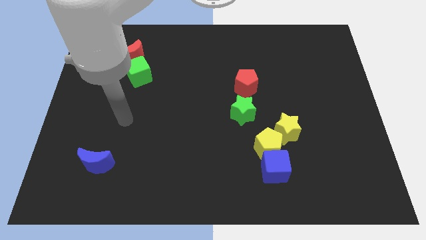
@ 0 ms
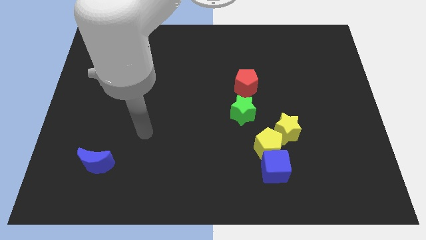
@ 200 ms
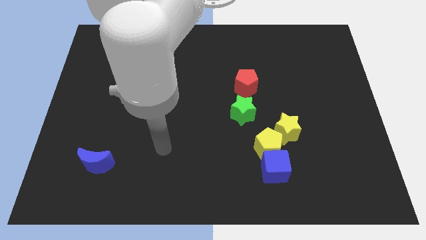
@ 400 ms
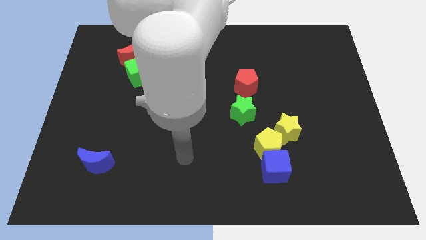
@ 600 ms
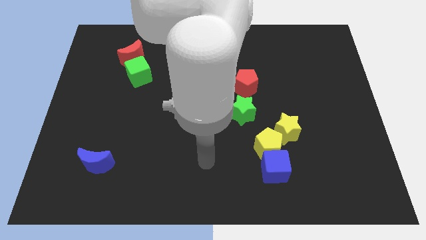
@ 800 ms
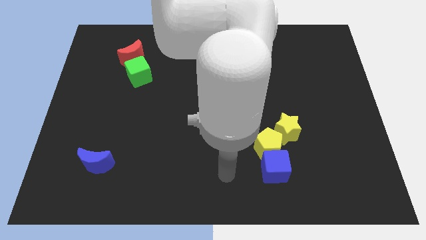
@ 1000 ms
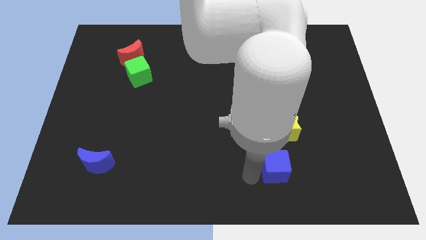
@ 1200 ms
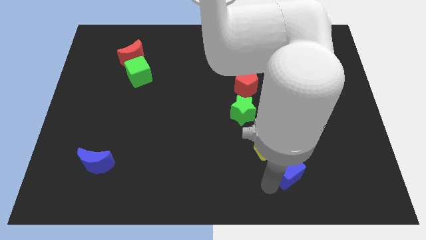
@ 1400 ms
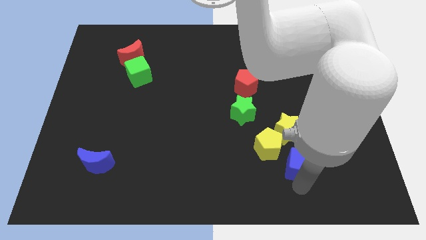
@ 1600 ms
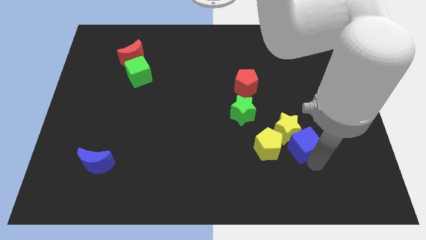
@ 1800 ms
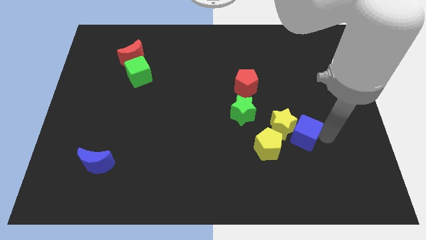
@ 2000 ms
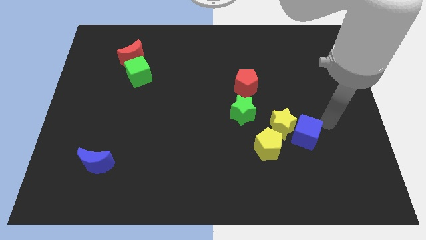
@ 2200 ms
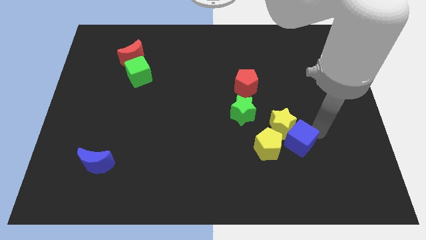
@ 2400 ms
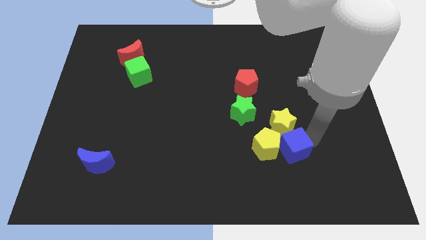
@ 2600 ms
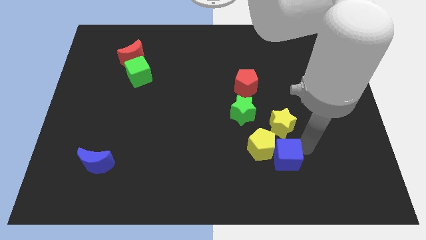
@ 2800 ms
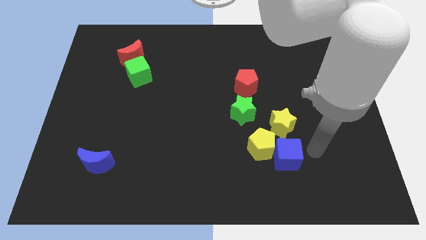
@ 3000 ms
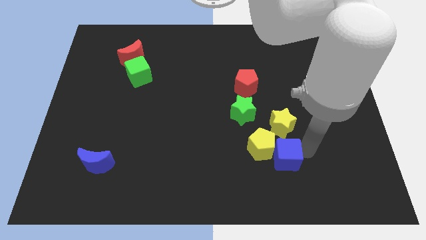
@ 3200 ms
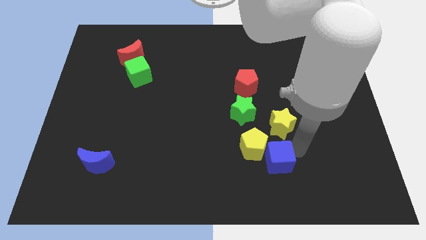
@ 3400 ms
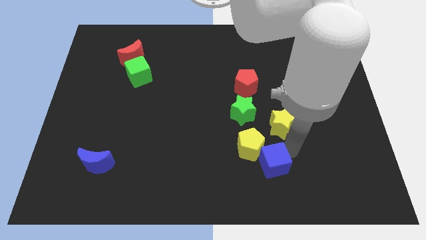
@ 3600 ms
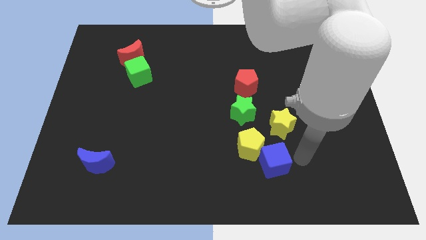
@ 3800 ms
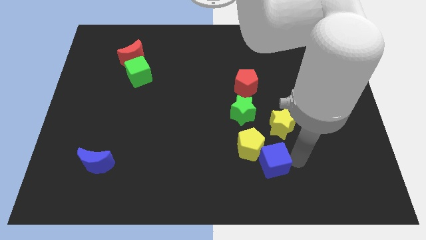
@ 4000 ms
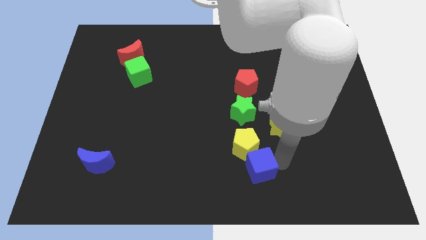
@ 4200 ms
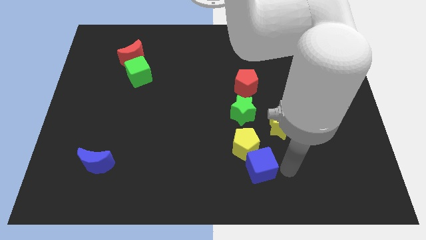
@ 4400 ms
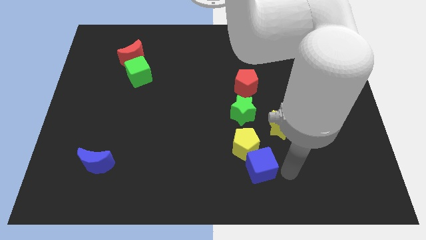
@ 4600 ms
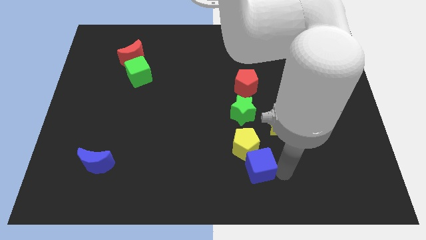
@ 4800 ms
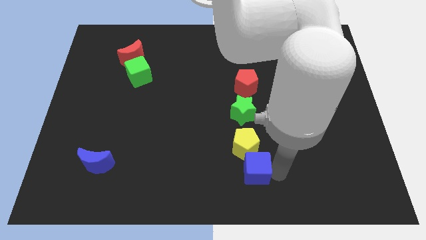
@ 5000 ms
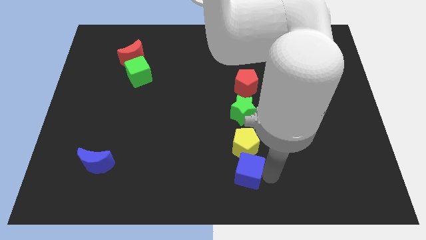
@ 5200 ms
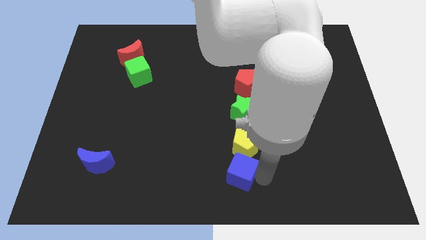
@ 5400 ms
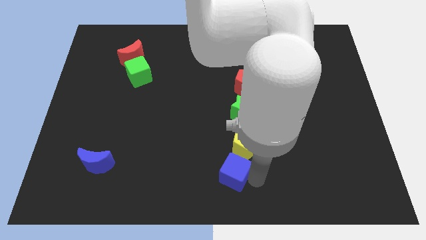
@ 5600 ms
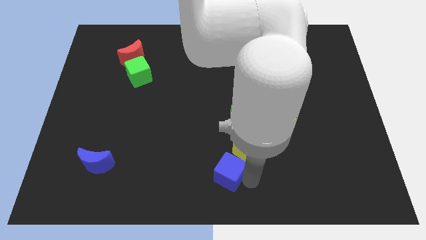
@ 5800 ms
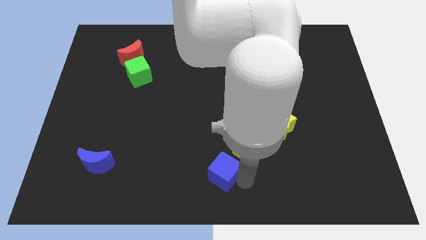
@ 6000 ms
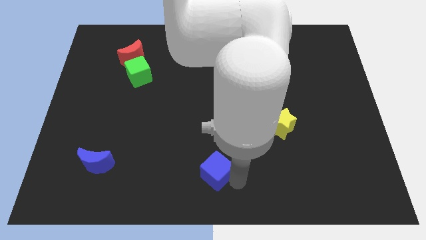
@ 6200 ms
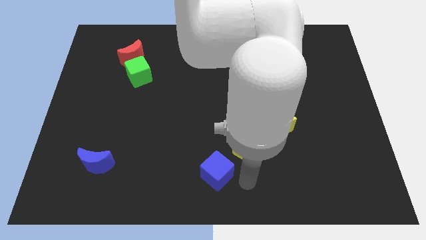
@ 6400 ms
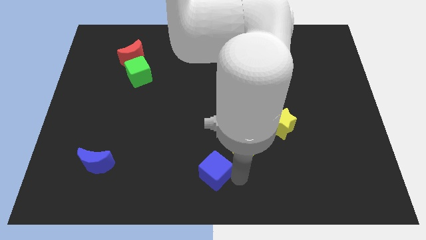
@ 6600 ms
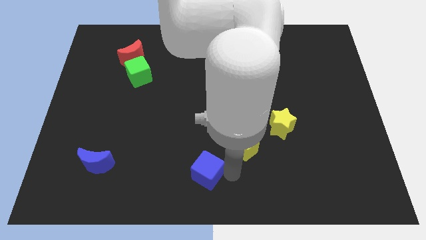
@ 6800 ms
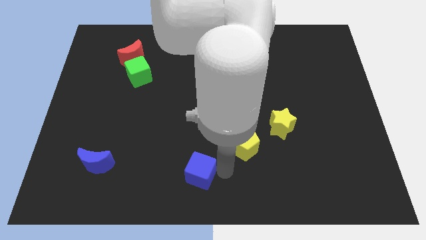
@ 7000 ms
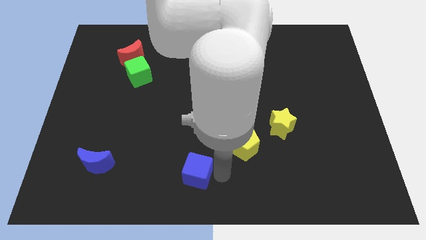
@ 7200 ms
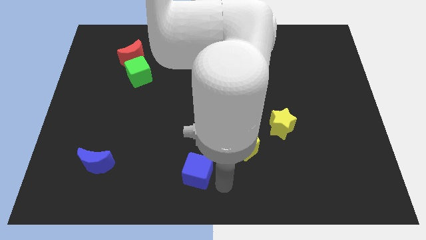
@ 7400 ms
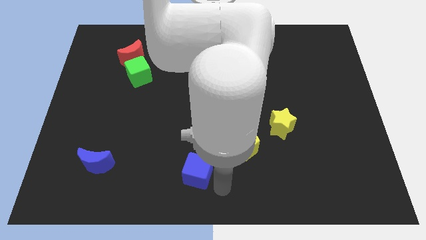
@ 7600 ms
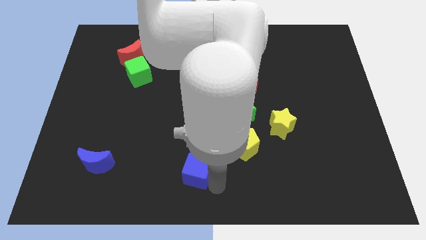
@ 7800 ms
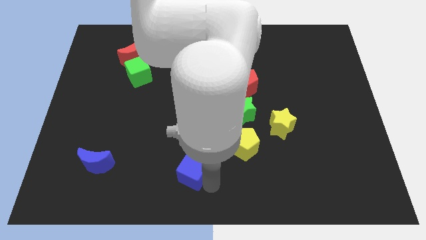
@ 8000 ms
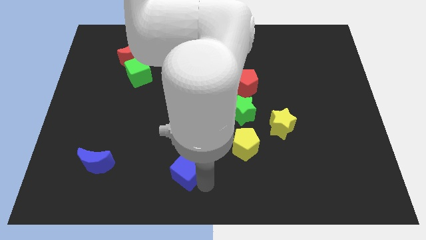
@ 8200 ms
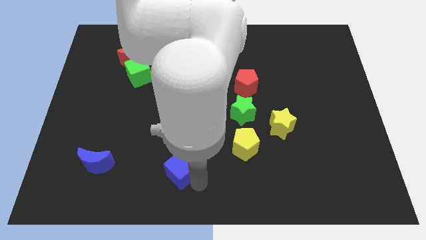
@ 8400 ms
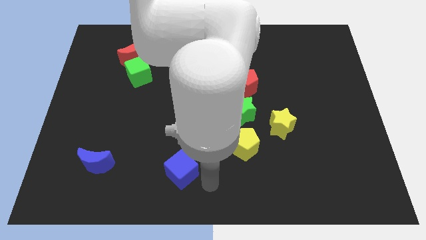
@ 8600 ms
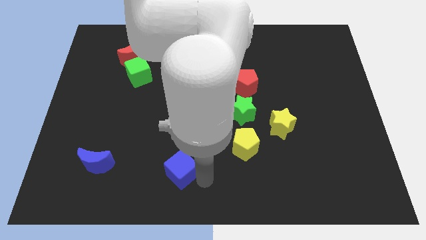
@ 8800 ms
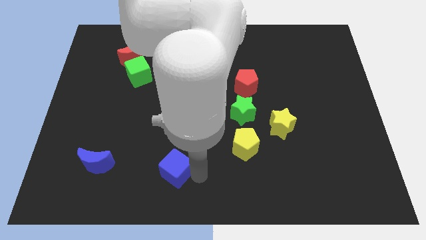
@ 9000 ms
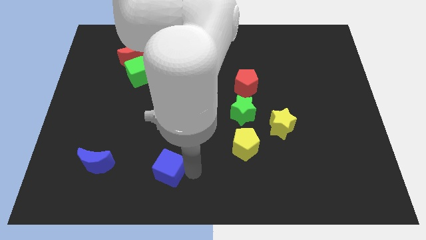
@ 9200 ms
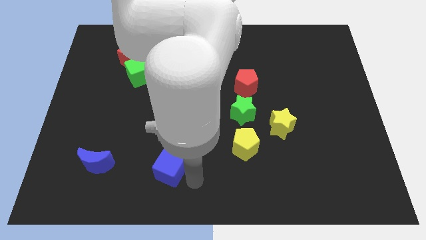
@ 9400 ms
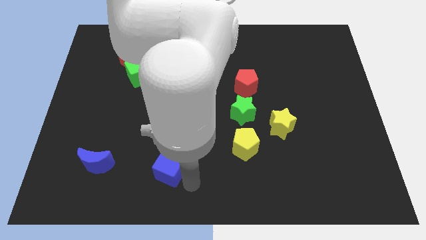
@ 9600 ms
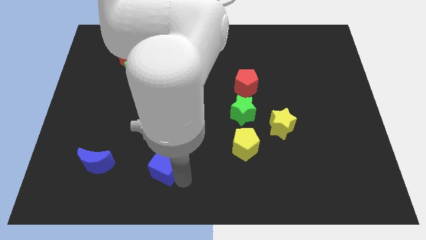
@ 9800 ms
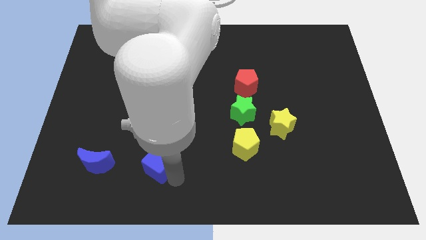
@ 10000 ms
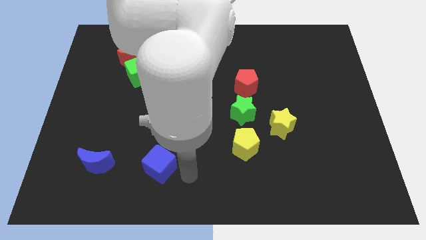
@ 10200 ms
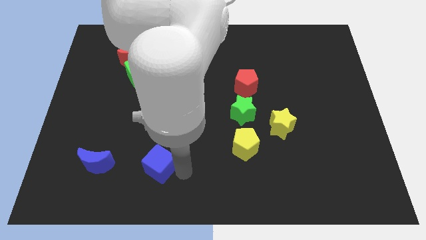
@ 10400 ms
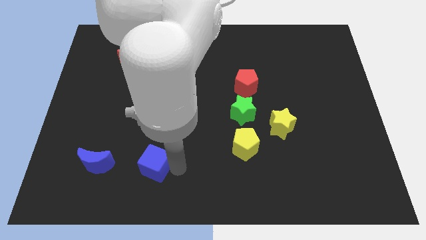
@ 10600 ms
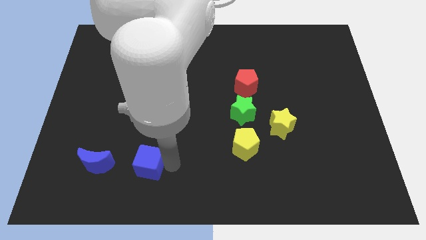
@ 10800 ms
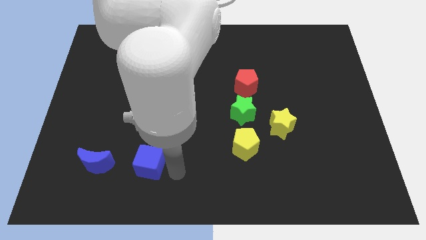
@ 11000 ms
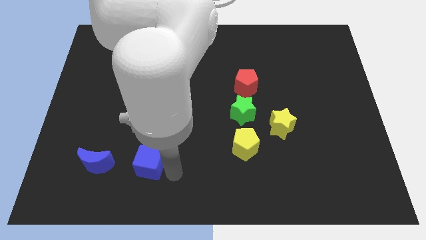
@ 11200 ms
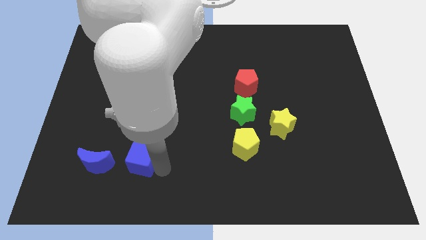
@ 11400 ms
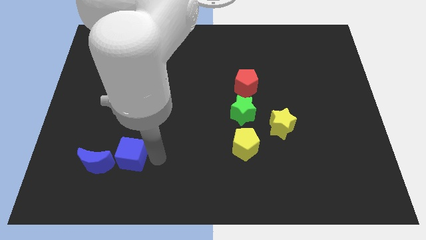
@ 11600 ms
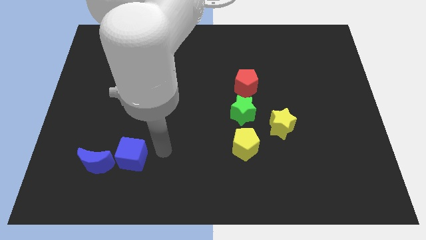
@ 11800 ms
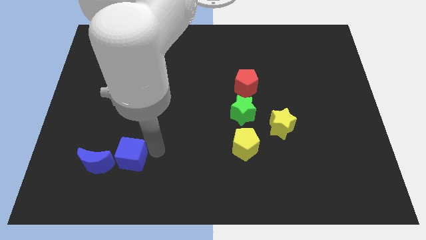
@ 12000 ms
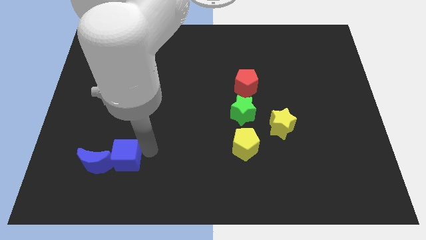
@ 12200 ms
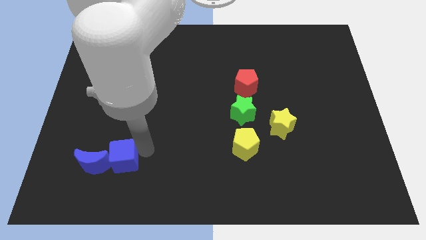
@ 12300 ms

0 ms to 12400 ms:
put the blue cube close to the blue moon
